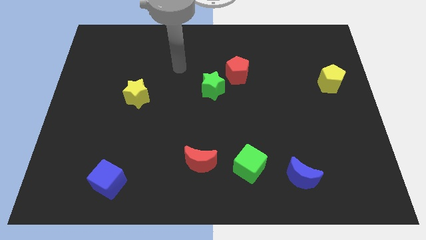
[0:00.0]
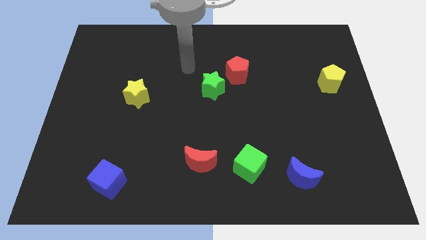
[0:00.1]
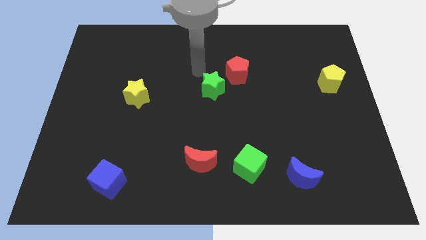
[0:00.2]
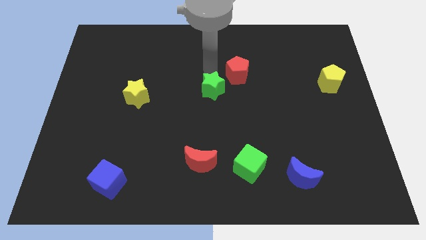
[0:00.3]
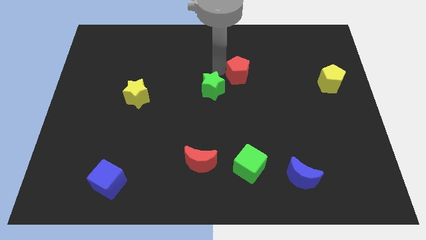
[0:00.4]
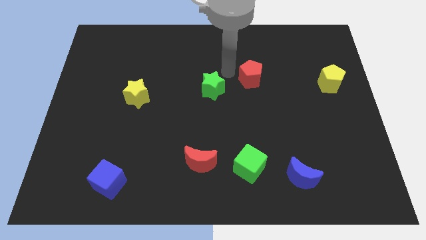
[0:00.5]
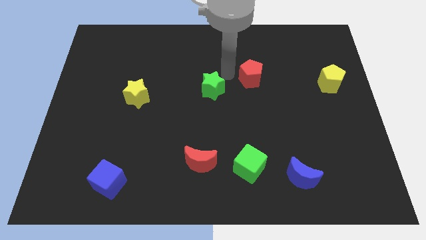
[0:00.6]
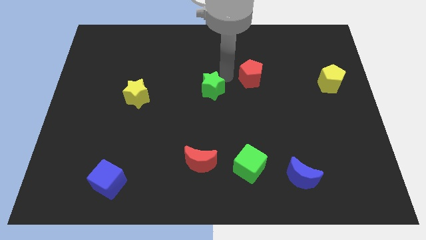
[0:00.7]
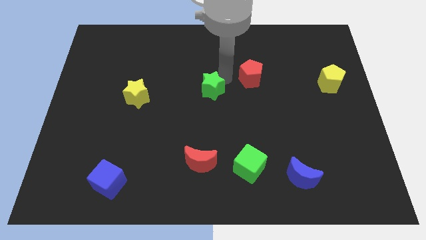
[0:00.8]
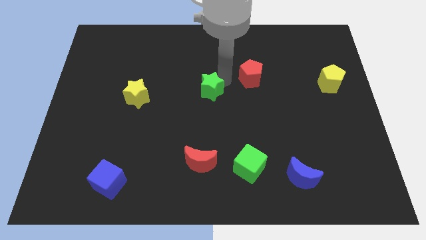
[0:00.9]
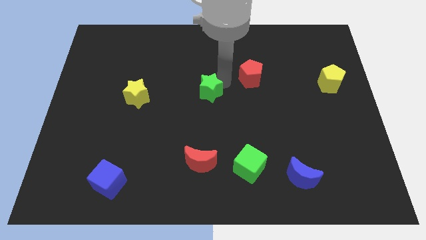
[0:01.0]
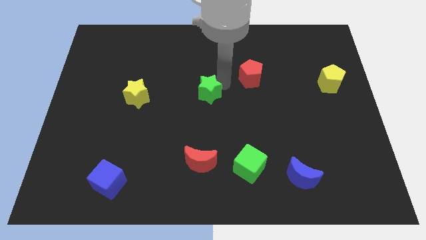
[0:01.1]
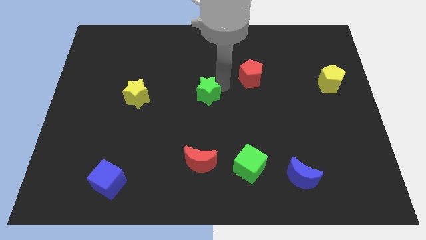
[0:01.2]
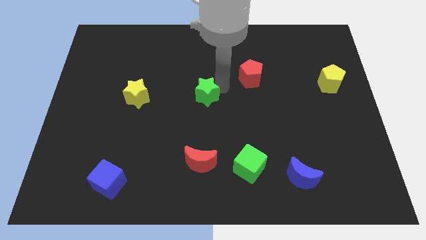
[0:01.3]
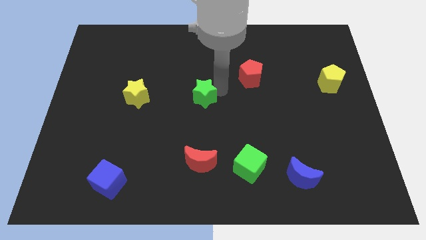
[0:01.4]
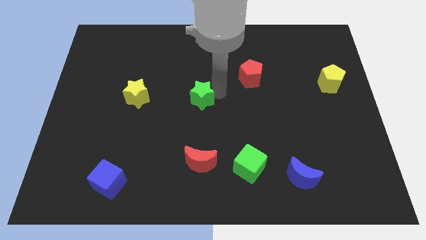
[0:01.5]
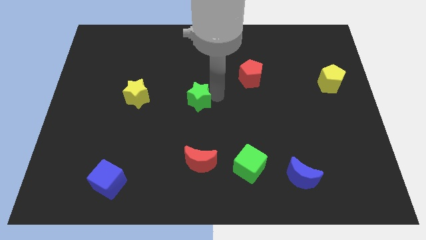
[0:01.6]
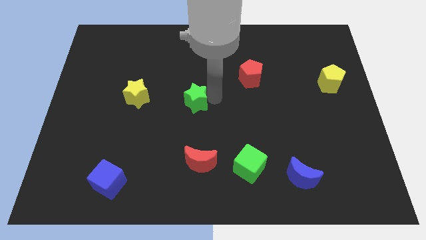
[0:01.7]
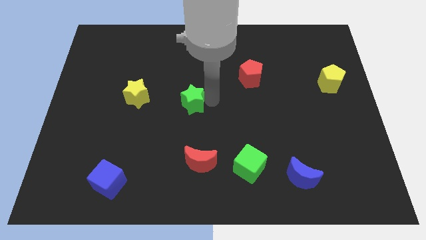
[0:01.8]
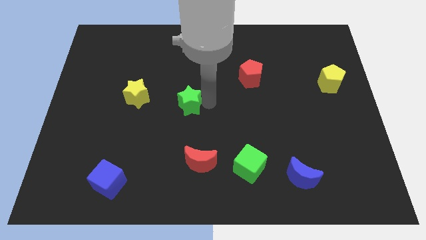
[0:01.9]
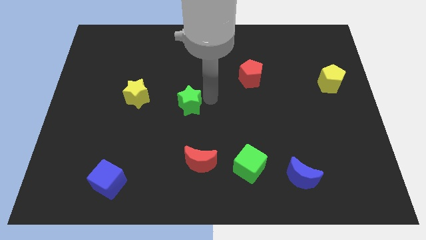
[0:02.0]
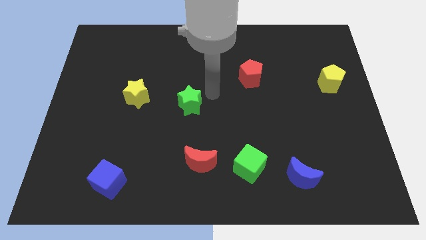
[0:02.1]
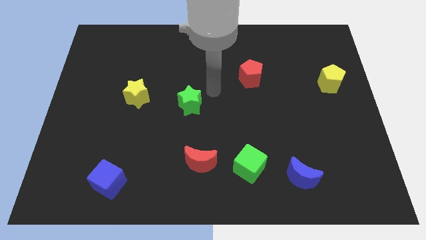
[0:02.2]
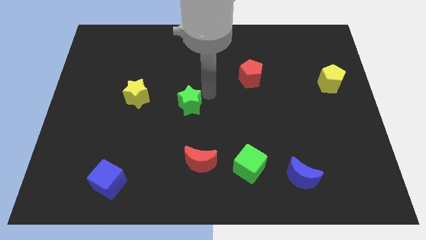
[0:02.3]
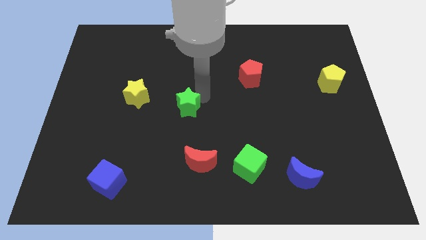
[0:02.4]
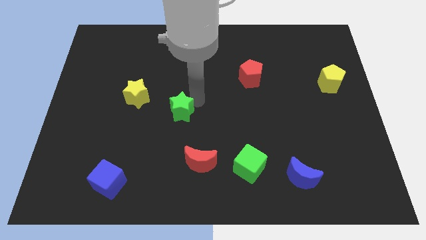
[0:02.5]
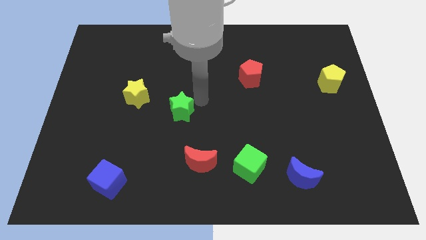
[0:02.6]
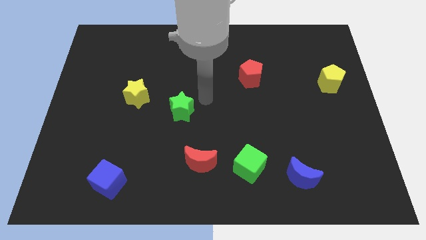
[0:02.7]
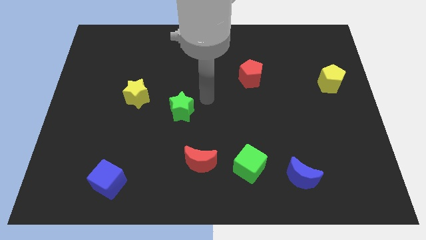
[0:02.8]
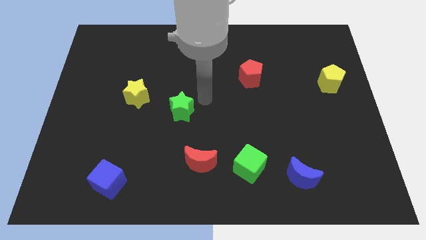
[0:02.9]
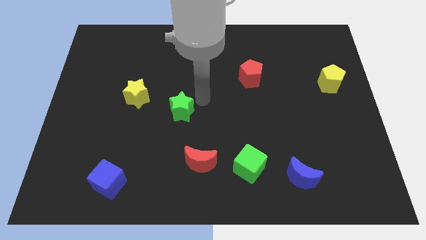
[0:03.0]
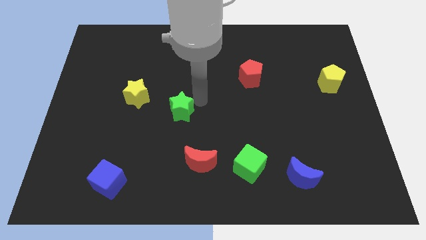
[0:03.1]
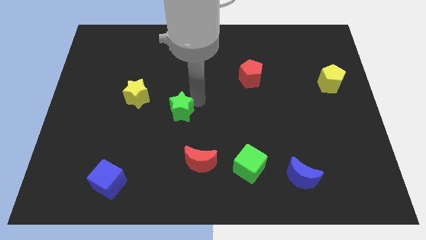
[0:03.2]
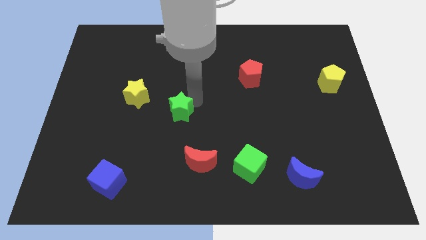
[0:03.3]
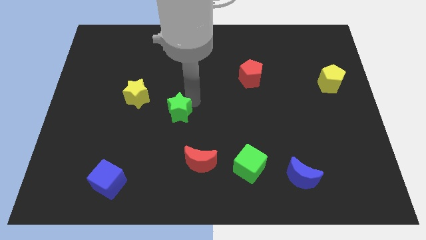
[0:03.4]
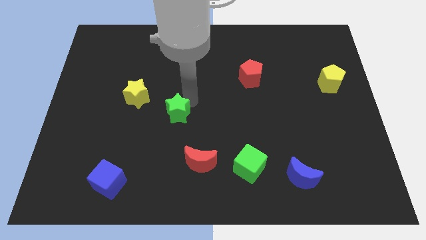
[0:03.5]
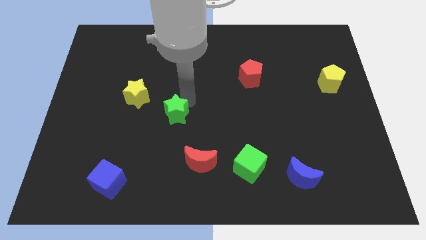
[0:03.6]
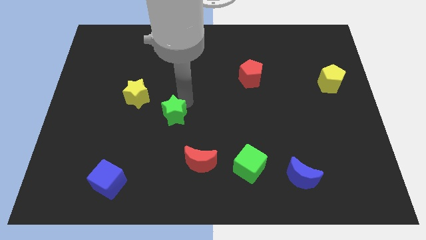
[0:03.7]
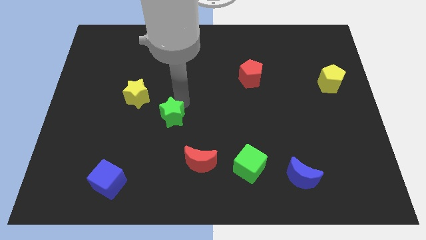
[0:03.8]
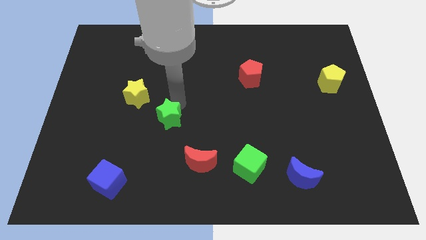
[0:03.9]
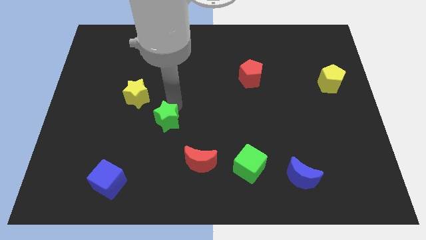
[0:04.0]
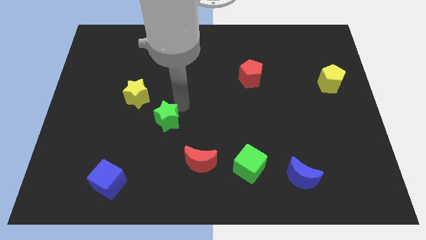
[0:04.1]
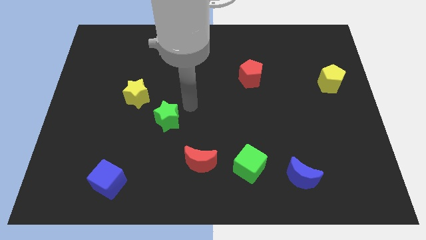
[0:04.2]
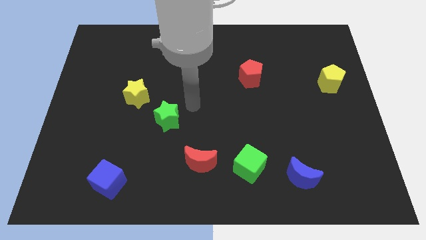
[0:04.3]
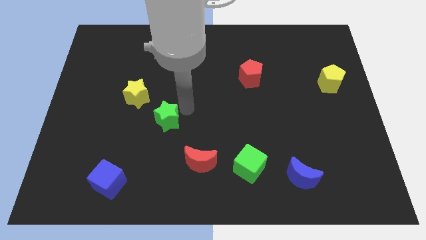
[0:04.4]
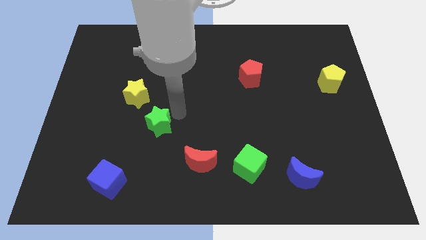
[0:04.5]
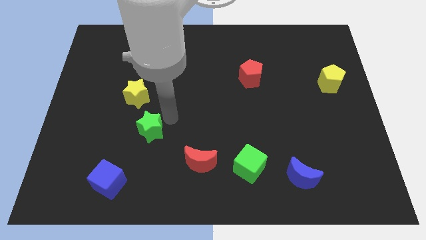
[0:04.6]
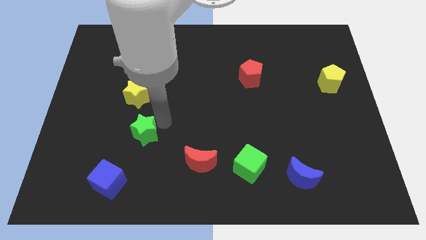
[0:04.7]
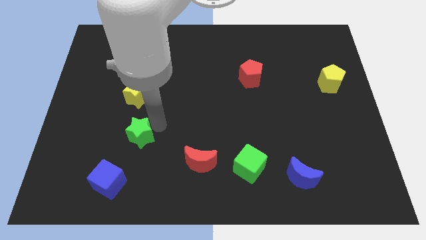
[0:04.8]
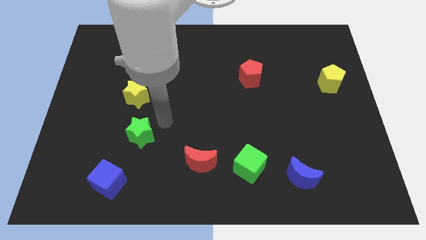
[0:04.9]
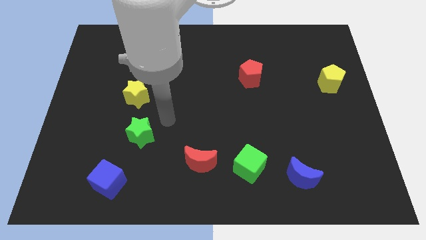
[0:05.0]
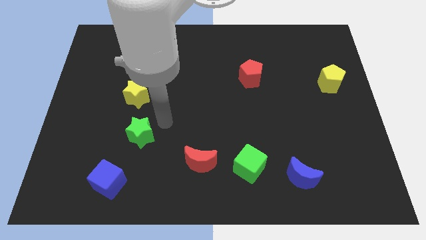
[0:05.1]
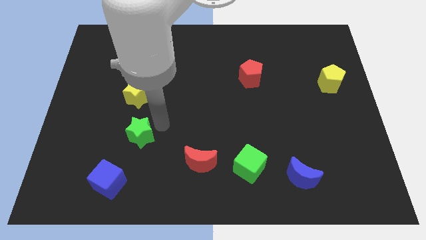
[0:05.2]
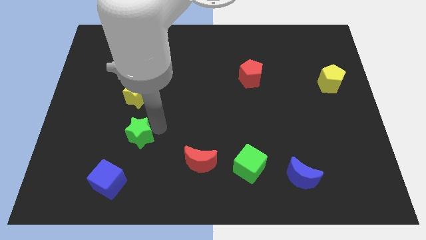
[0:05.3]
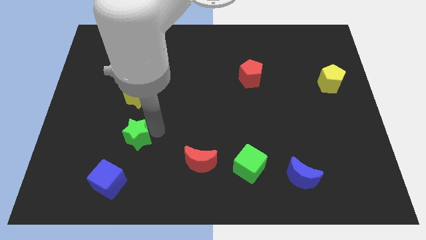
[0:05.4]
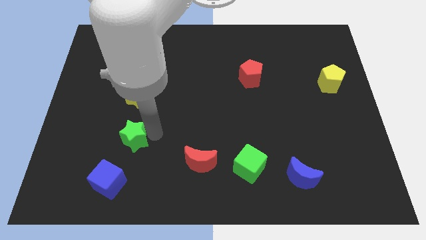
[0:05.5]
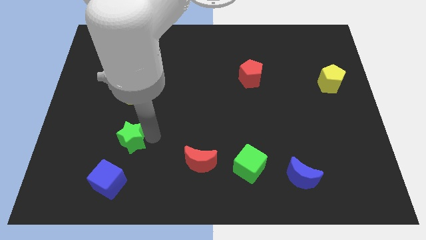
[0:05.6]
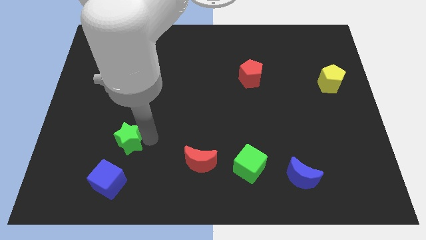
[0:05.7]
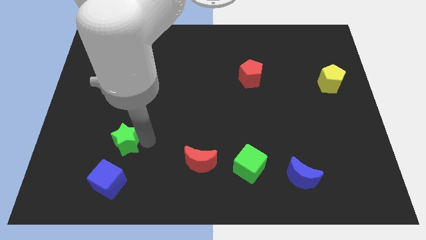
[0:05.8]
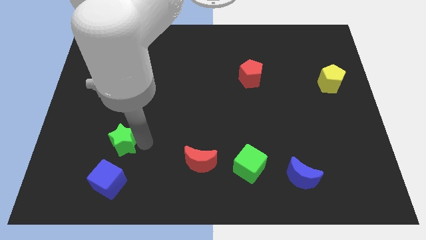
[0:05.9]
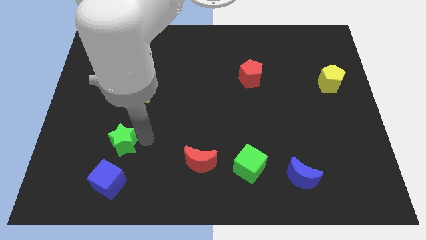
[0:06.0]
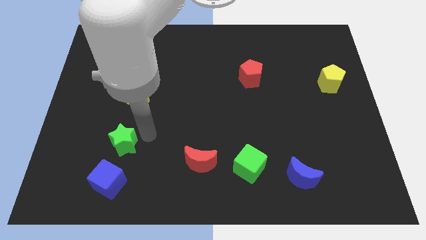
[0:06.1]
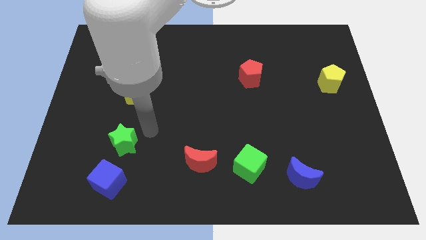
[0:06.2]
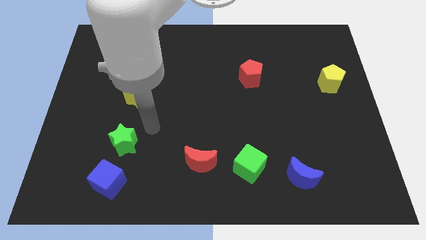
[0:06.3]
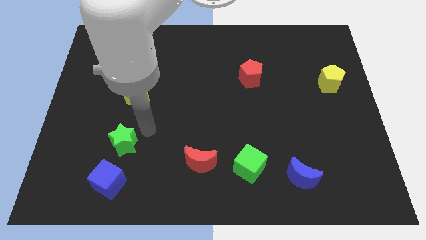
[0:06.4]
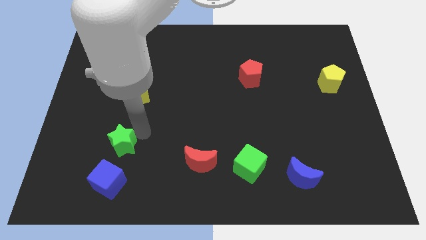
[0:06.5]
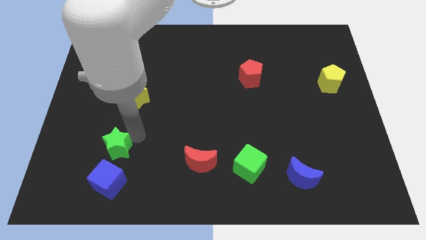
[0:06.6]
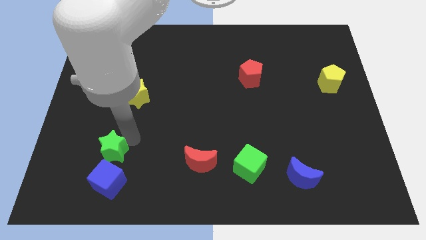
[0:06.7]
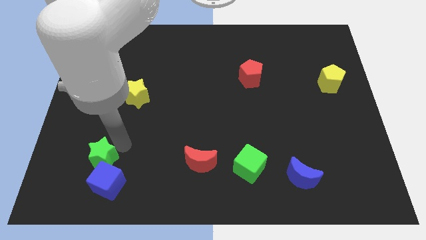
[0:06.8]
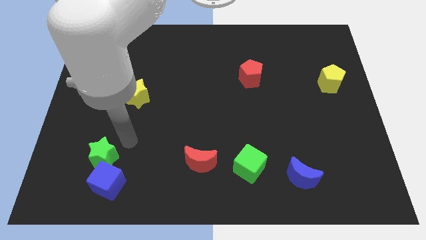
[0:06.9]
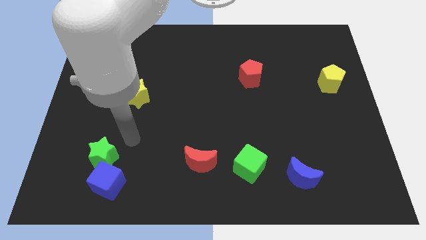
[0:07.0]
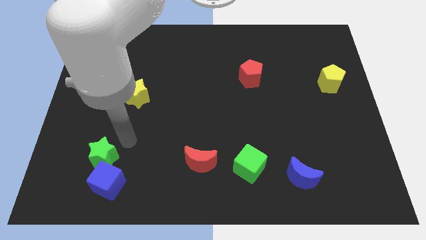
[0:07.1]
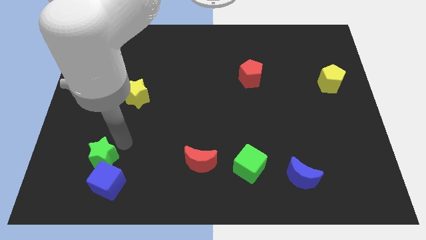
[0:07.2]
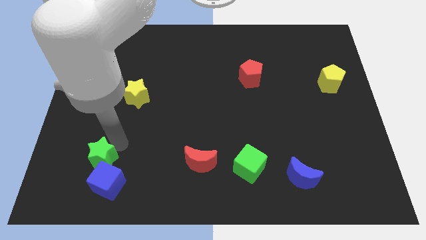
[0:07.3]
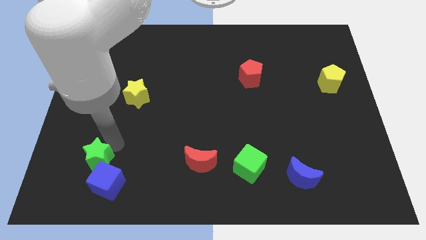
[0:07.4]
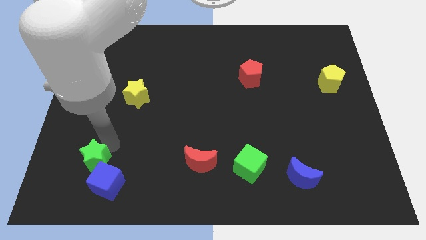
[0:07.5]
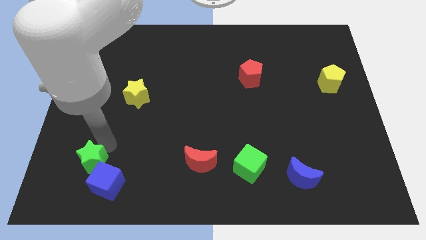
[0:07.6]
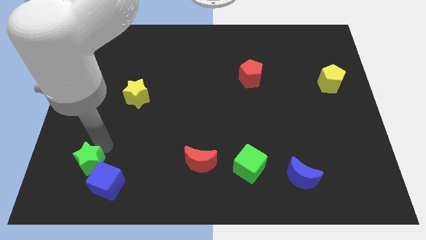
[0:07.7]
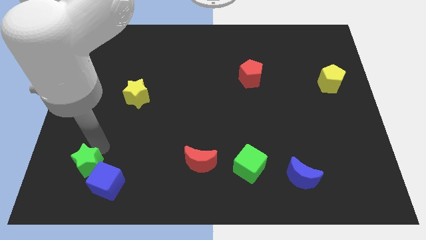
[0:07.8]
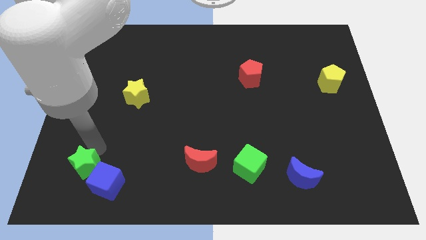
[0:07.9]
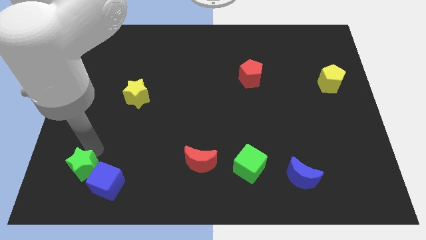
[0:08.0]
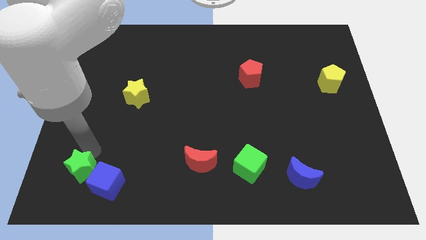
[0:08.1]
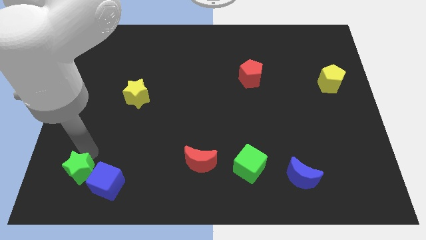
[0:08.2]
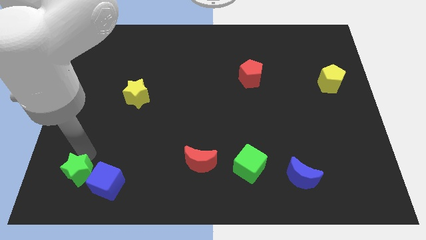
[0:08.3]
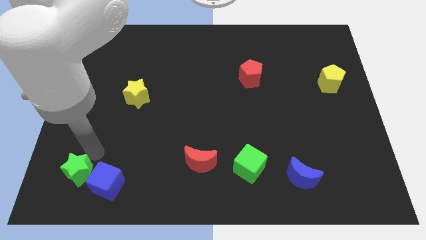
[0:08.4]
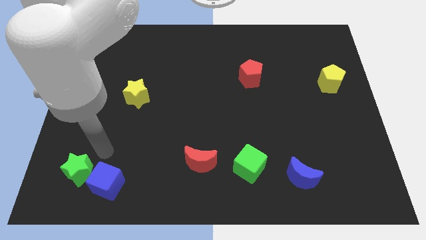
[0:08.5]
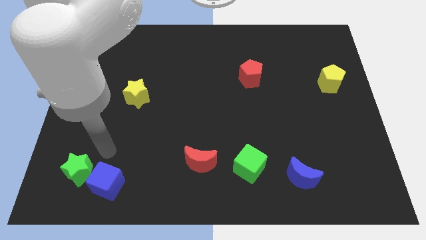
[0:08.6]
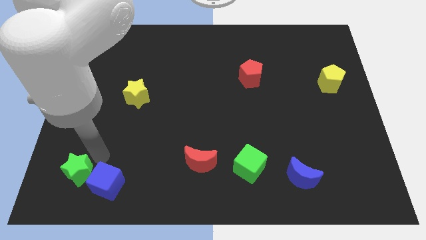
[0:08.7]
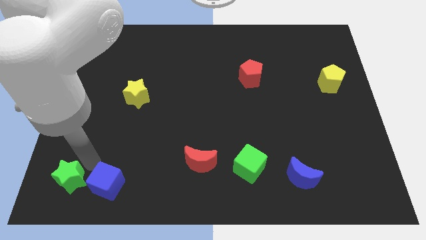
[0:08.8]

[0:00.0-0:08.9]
push the green star to the lower left corner
